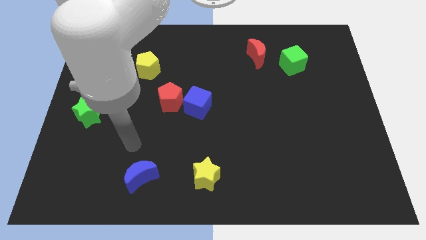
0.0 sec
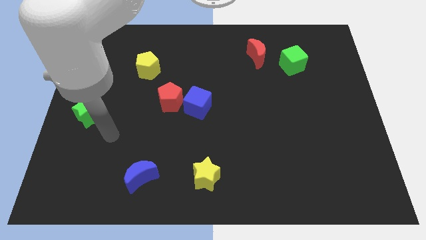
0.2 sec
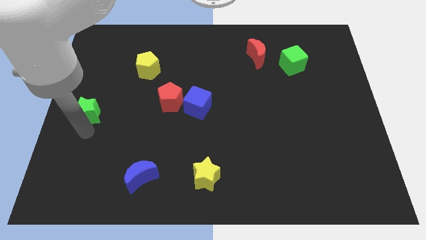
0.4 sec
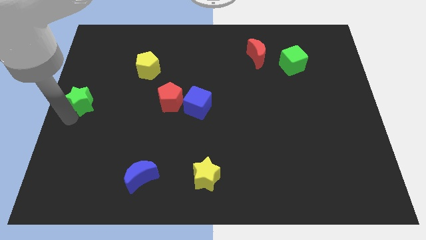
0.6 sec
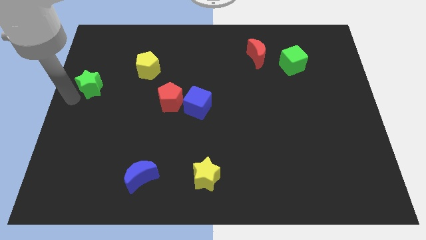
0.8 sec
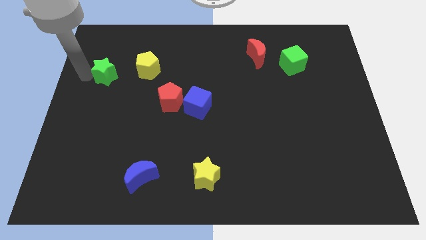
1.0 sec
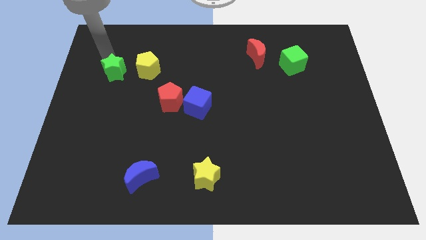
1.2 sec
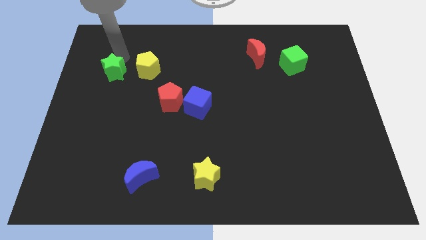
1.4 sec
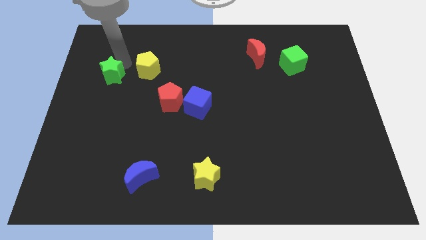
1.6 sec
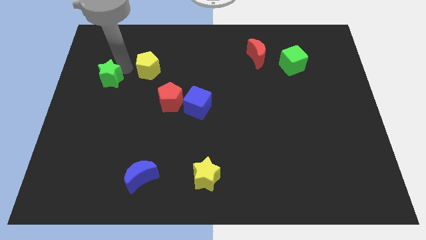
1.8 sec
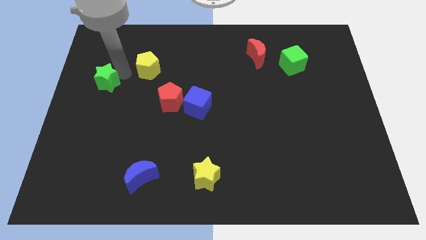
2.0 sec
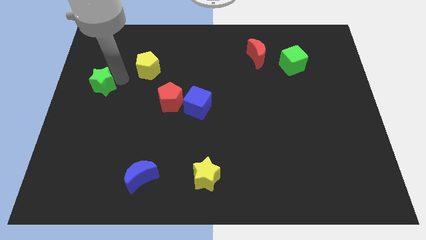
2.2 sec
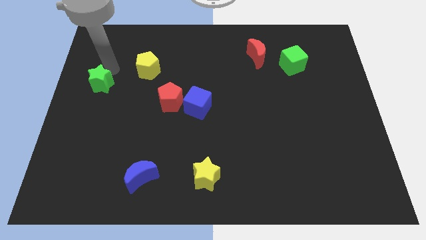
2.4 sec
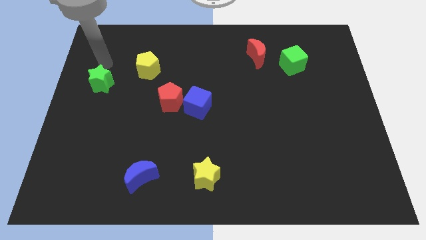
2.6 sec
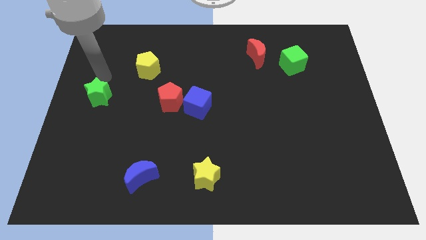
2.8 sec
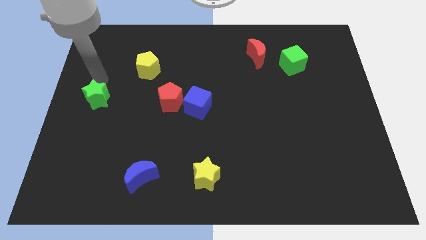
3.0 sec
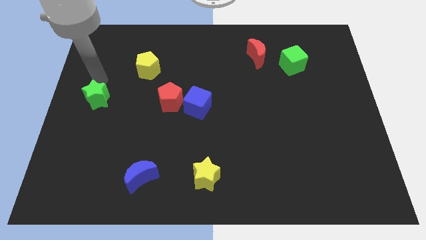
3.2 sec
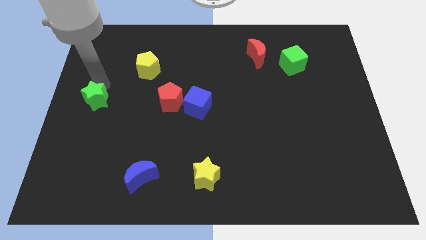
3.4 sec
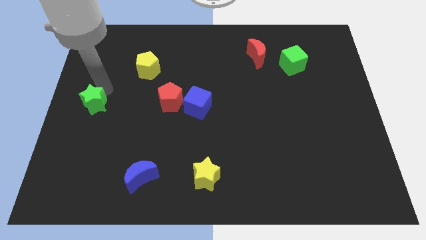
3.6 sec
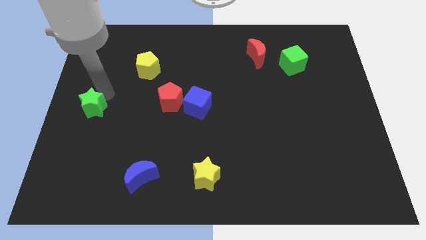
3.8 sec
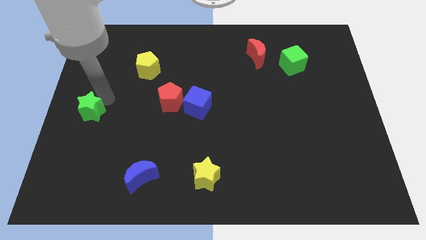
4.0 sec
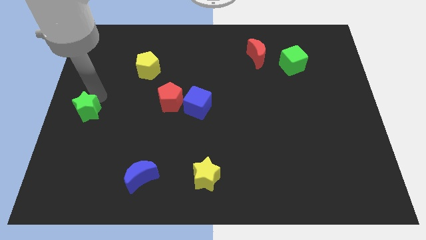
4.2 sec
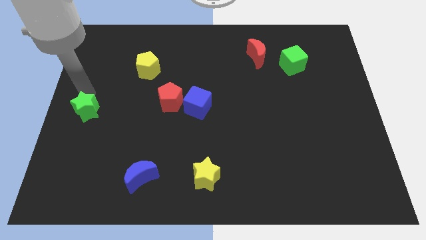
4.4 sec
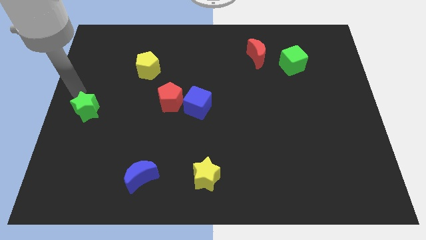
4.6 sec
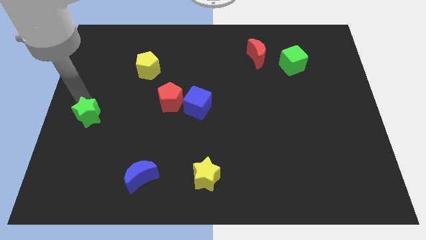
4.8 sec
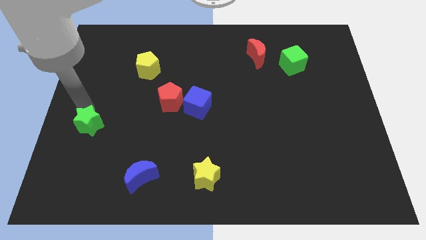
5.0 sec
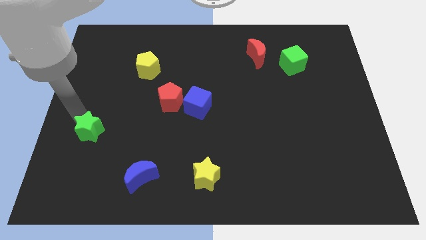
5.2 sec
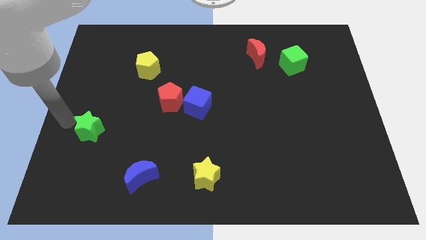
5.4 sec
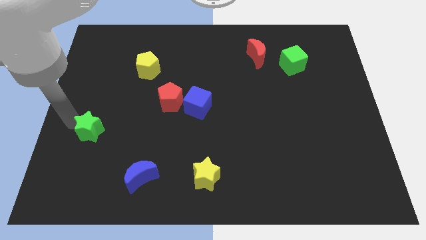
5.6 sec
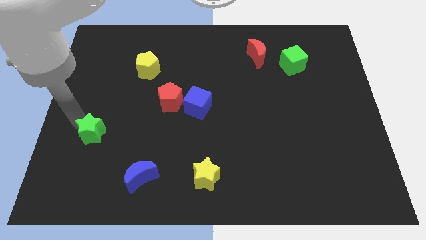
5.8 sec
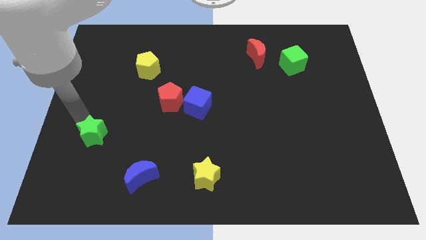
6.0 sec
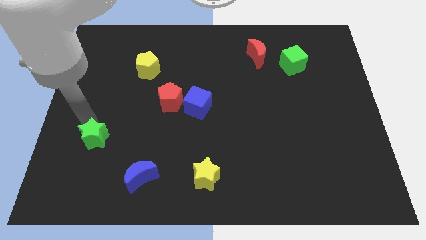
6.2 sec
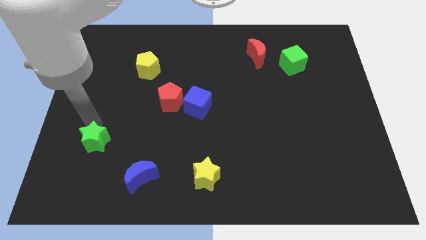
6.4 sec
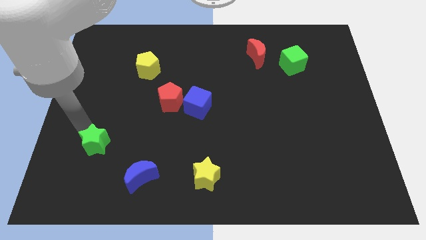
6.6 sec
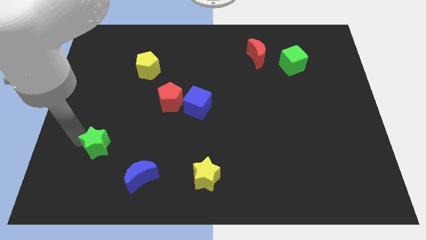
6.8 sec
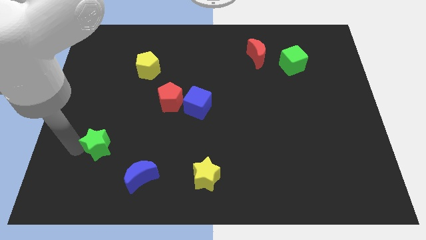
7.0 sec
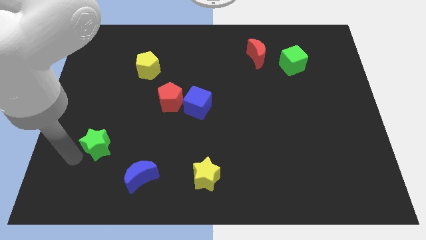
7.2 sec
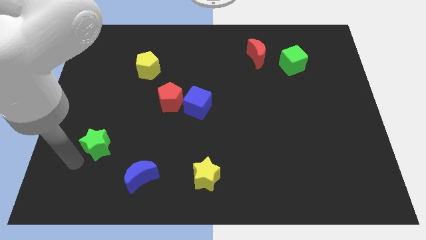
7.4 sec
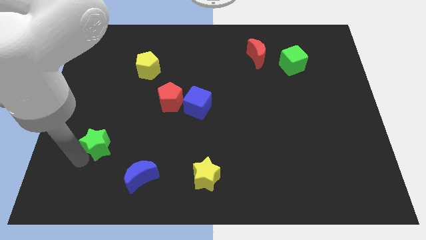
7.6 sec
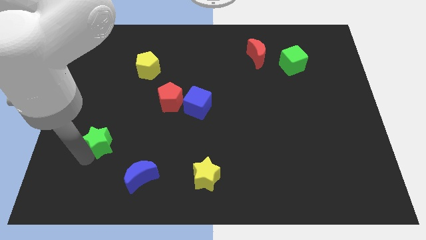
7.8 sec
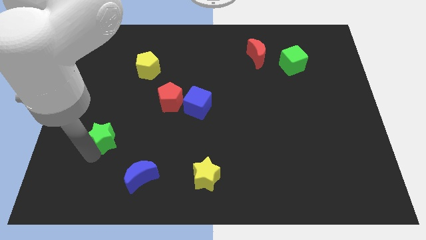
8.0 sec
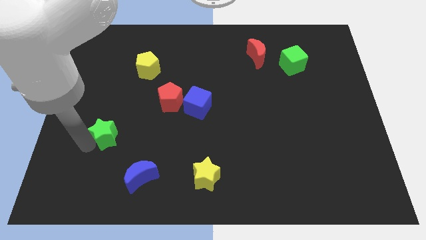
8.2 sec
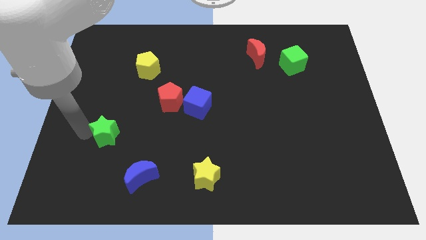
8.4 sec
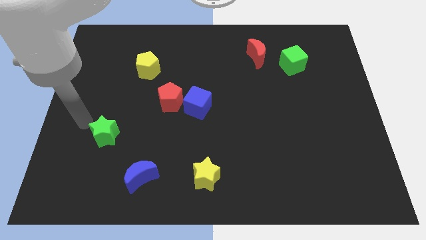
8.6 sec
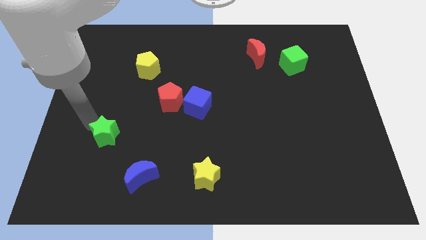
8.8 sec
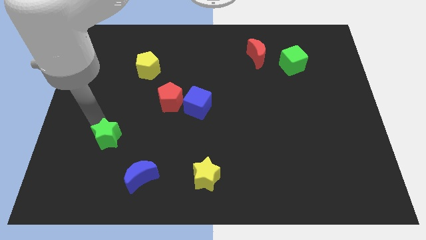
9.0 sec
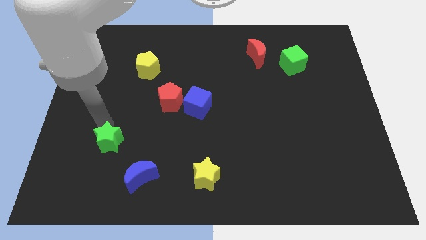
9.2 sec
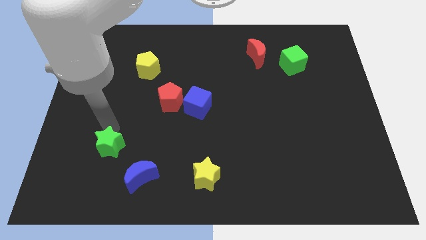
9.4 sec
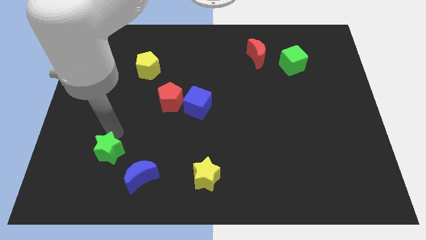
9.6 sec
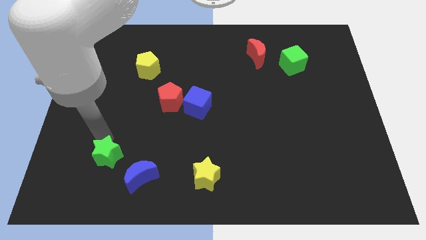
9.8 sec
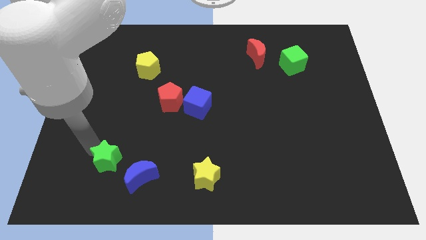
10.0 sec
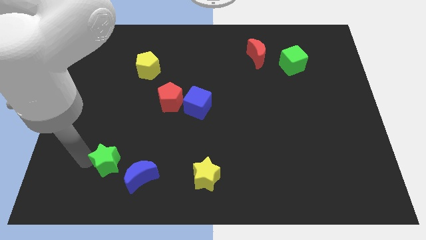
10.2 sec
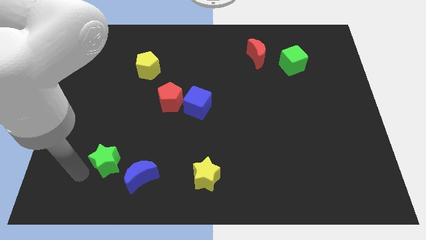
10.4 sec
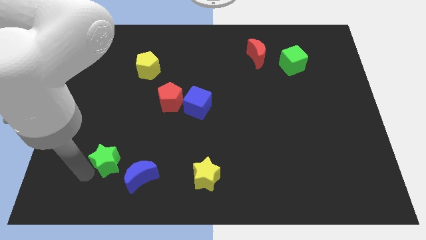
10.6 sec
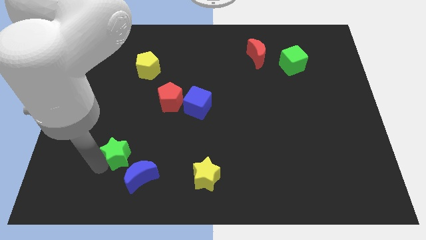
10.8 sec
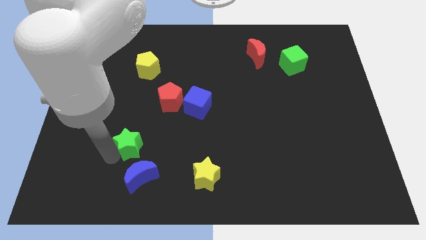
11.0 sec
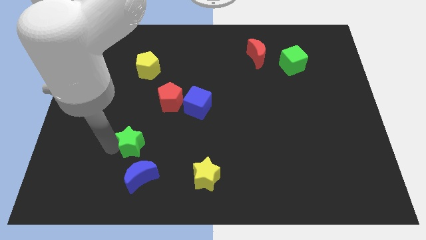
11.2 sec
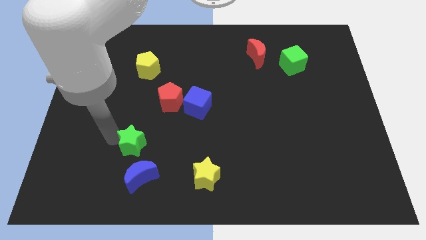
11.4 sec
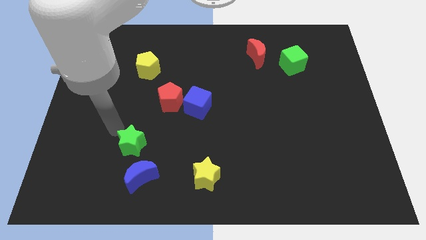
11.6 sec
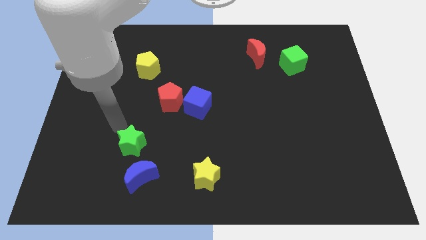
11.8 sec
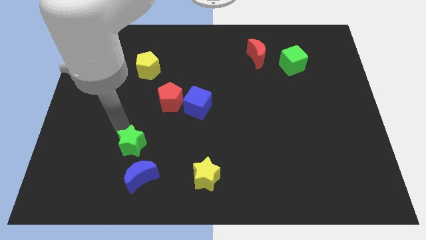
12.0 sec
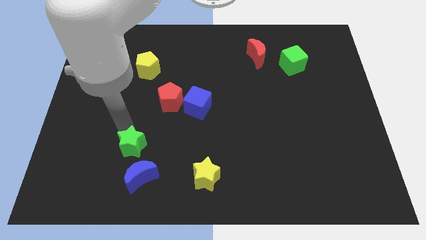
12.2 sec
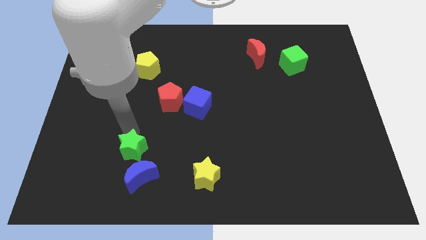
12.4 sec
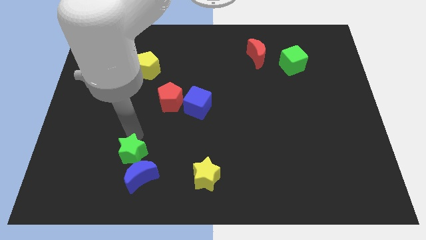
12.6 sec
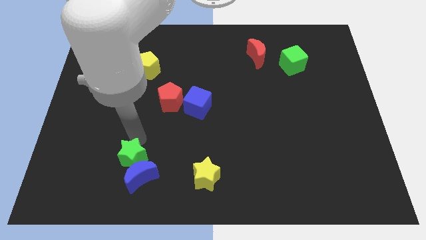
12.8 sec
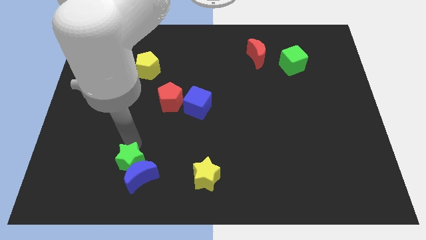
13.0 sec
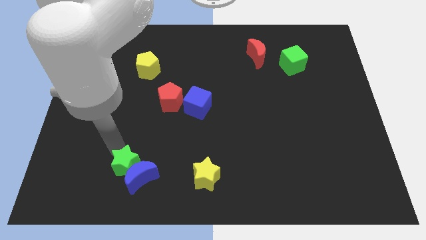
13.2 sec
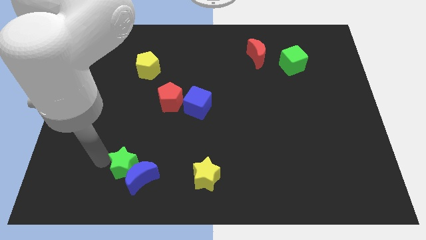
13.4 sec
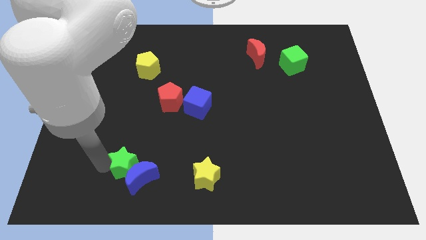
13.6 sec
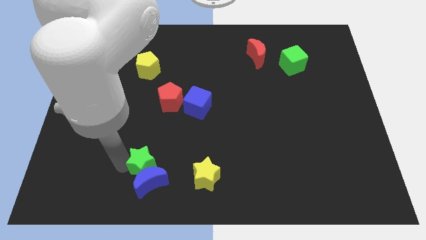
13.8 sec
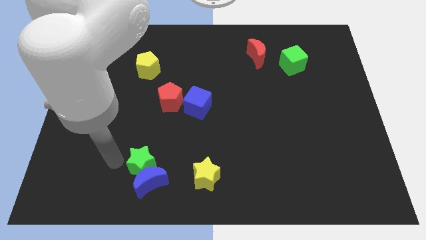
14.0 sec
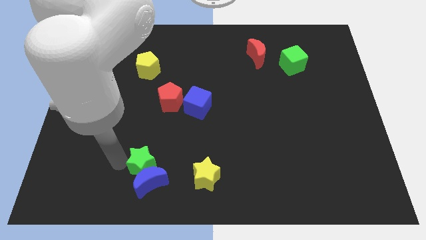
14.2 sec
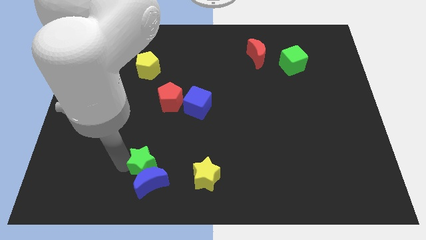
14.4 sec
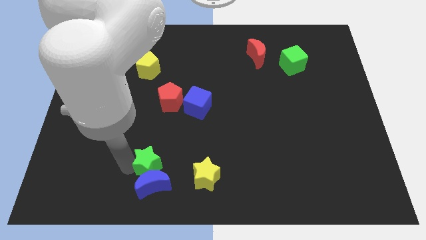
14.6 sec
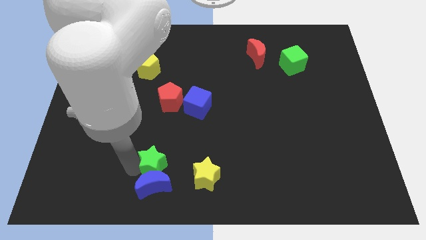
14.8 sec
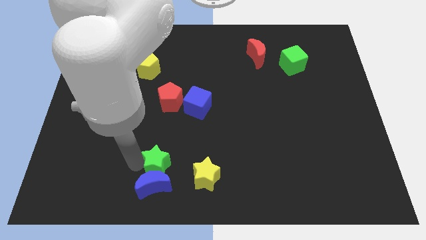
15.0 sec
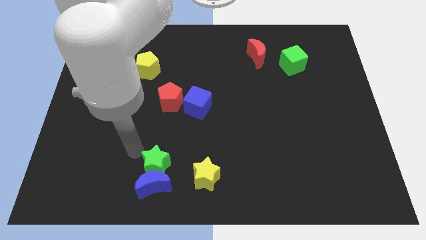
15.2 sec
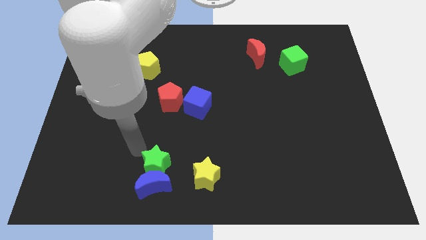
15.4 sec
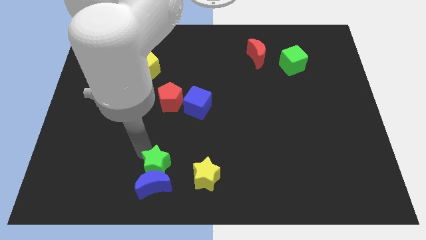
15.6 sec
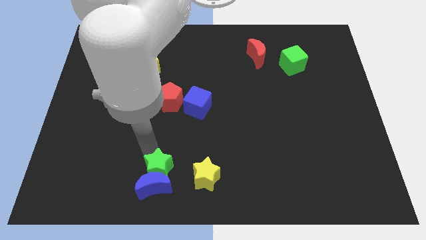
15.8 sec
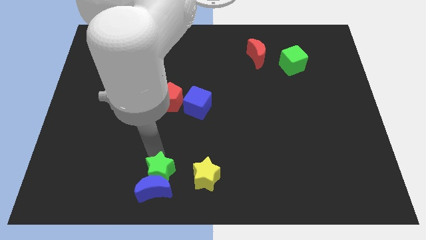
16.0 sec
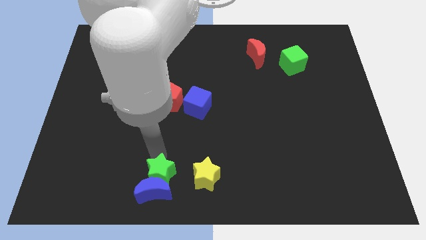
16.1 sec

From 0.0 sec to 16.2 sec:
push the green star to the bottom
